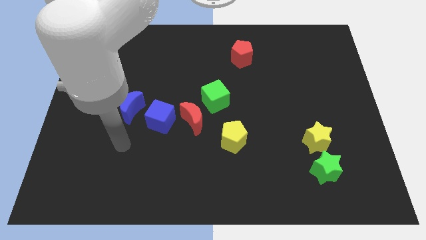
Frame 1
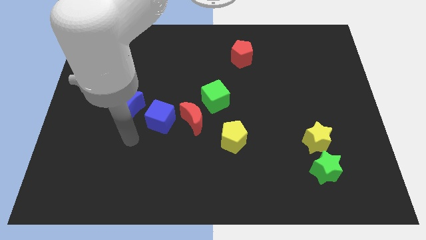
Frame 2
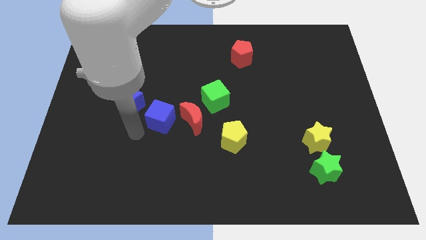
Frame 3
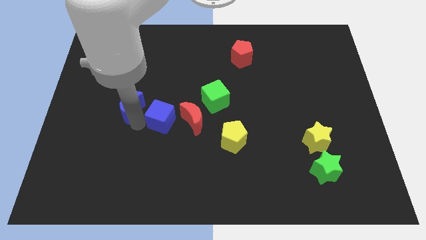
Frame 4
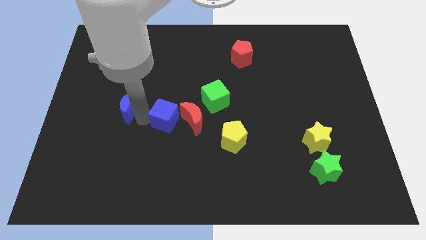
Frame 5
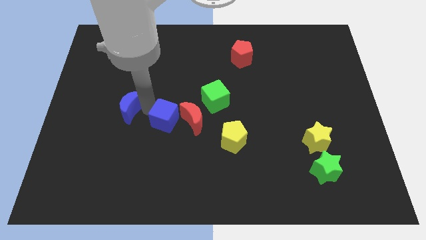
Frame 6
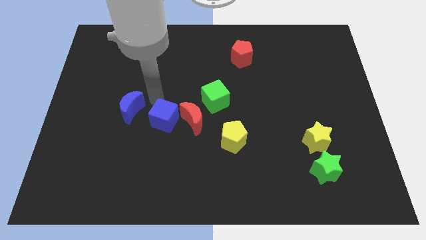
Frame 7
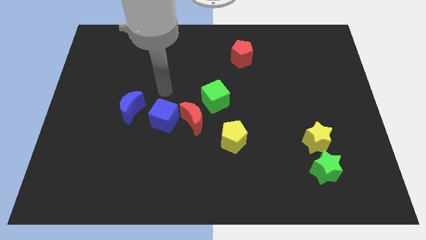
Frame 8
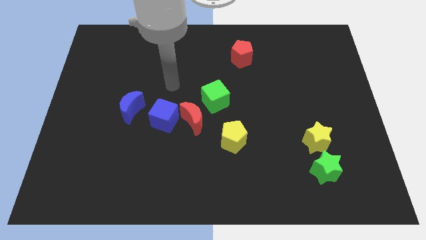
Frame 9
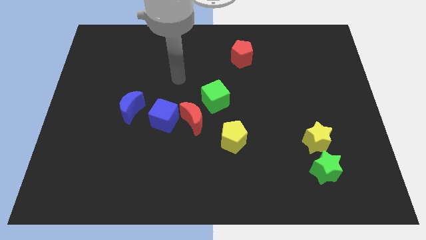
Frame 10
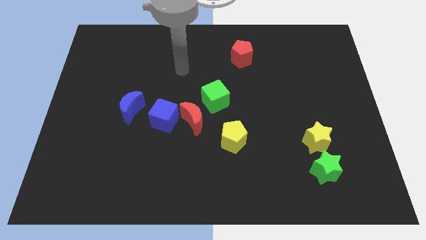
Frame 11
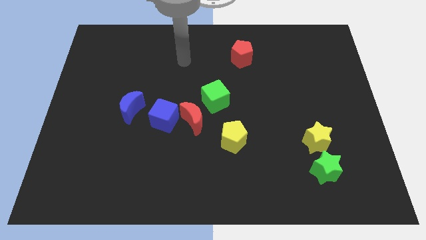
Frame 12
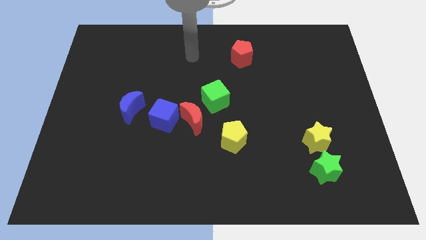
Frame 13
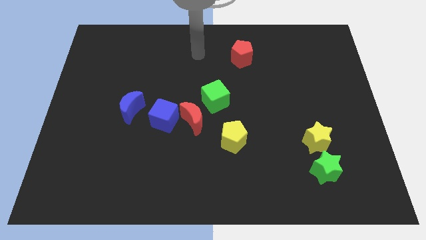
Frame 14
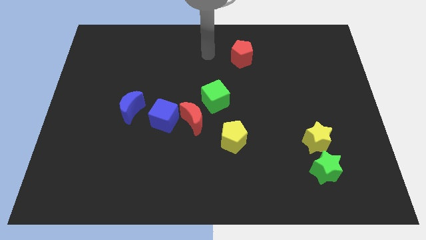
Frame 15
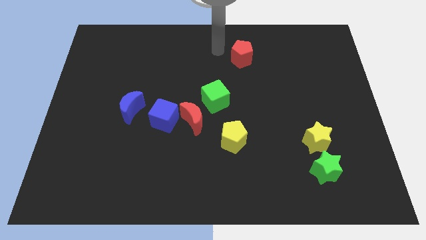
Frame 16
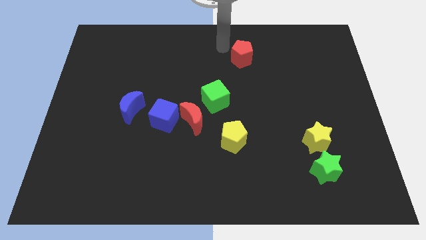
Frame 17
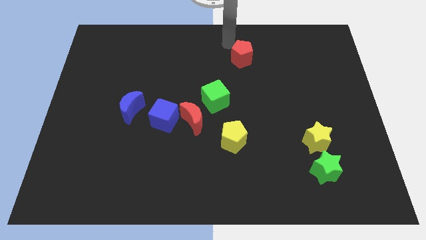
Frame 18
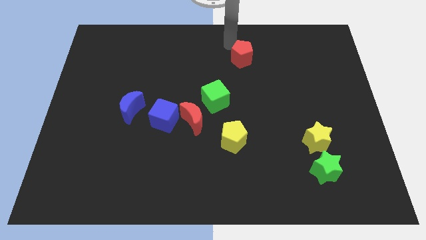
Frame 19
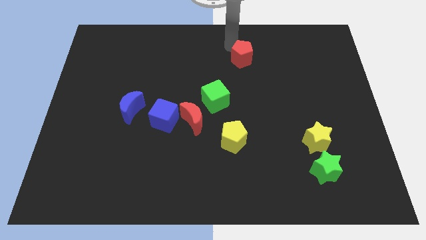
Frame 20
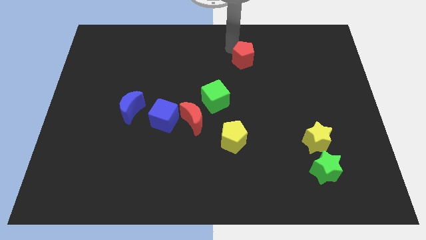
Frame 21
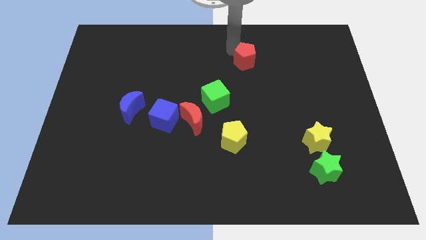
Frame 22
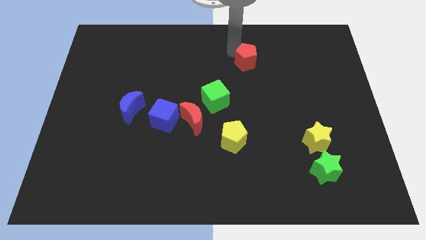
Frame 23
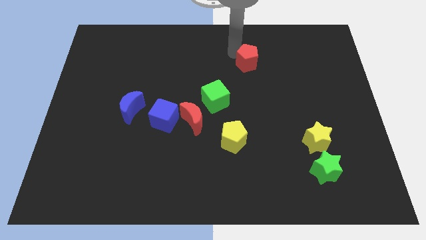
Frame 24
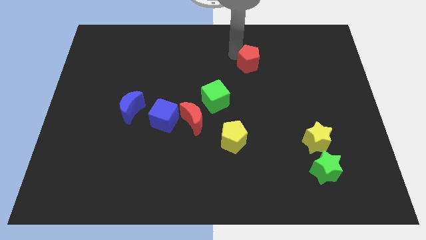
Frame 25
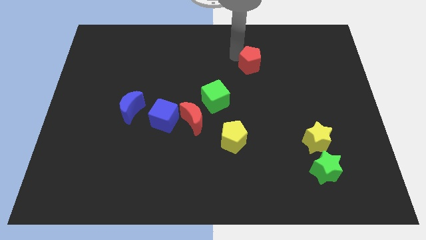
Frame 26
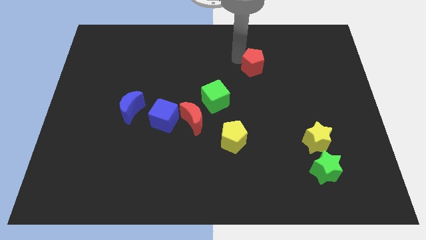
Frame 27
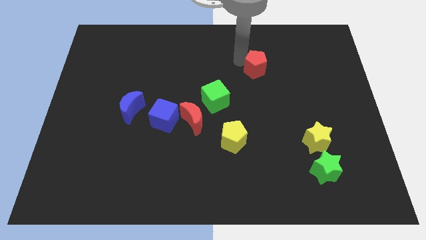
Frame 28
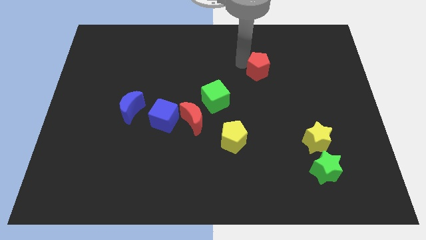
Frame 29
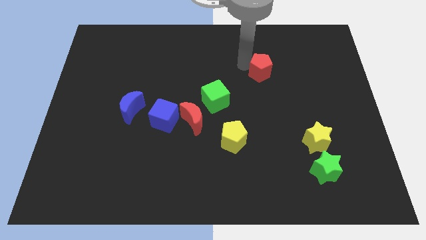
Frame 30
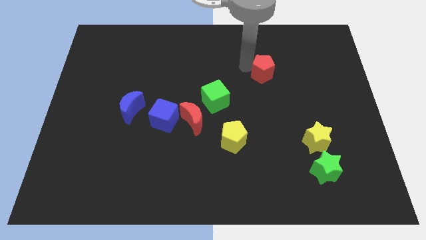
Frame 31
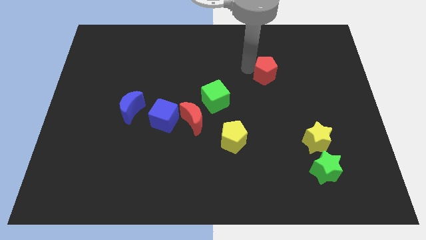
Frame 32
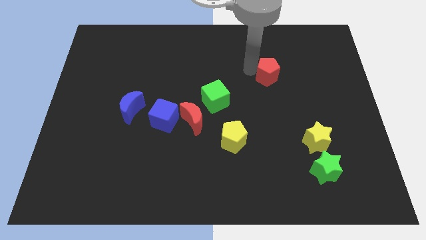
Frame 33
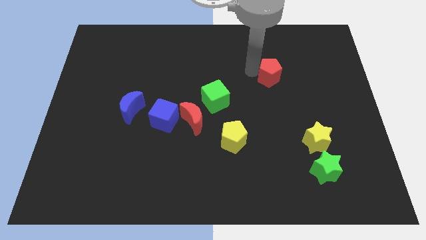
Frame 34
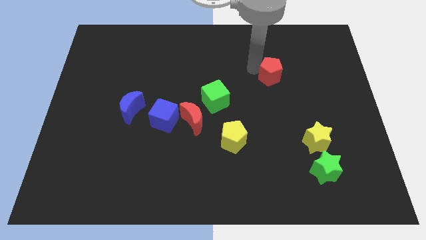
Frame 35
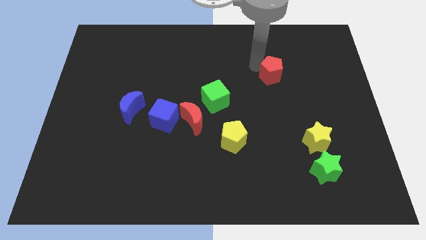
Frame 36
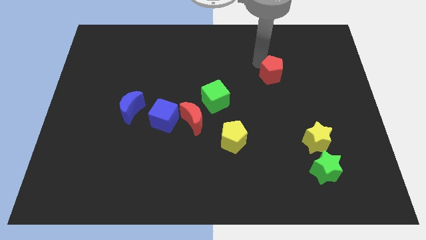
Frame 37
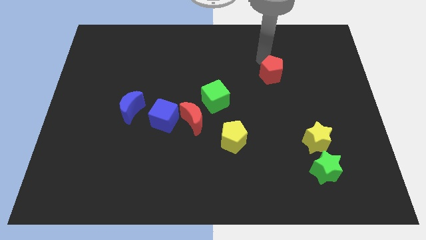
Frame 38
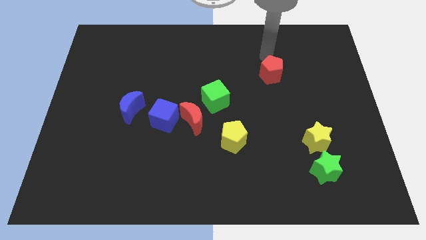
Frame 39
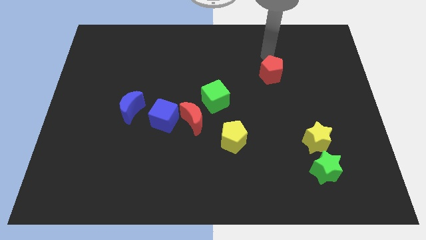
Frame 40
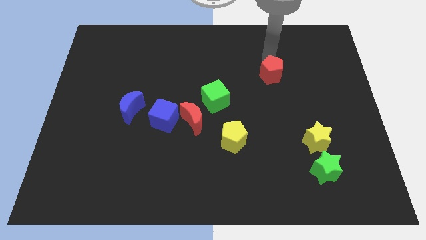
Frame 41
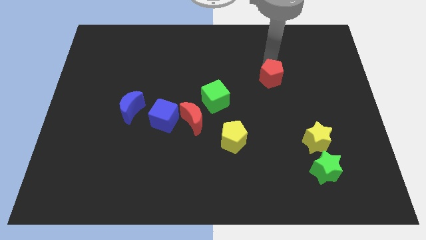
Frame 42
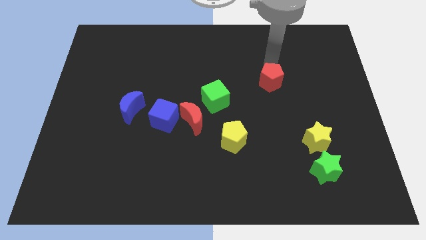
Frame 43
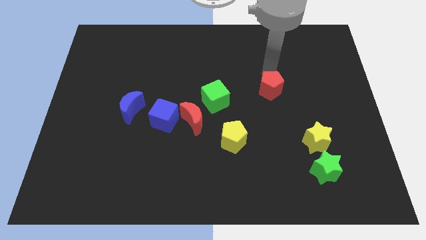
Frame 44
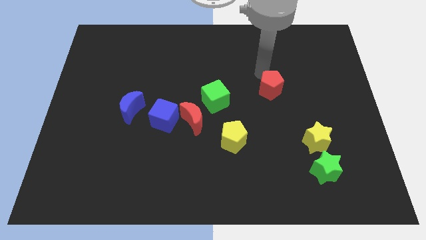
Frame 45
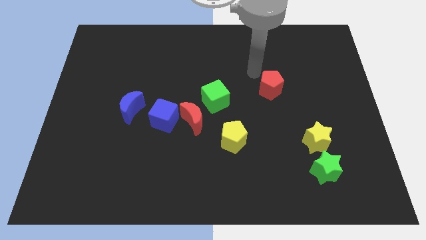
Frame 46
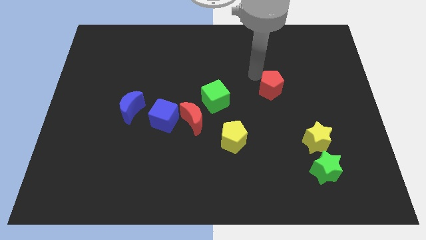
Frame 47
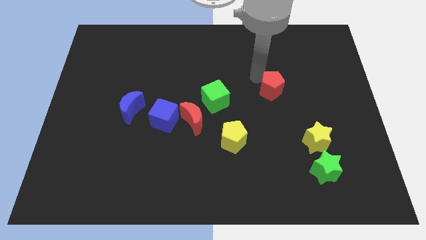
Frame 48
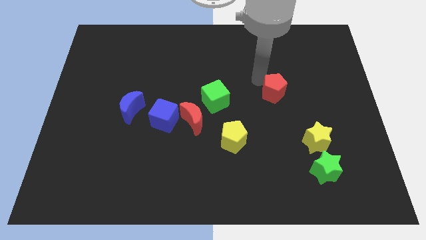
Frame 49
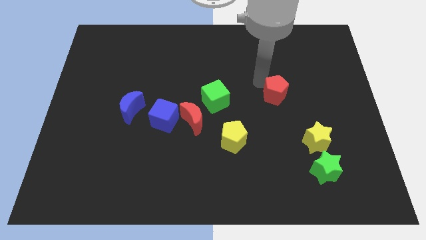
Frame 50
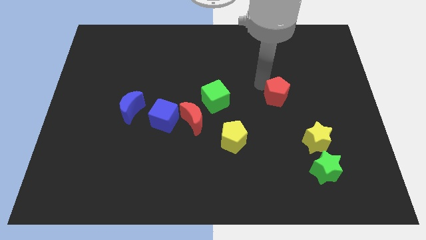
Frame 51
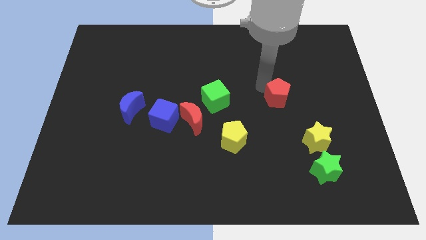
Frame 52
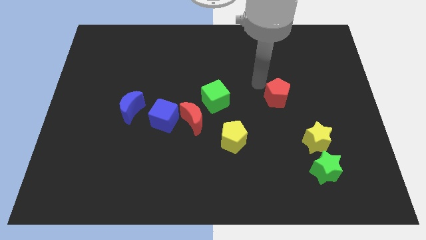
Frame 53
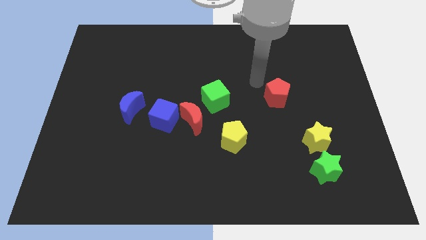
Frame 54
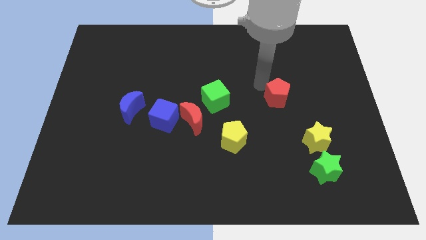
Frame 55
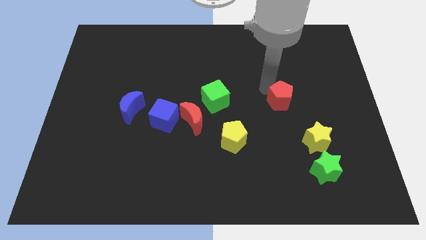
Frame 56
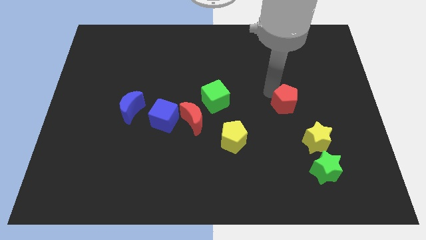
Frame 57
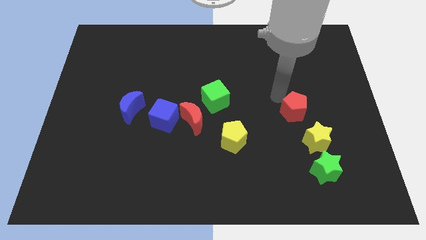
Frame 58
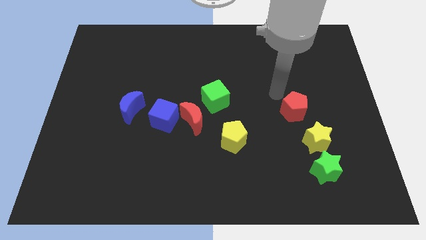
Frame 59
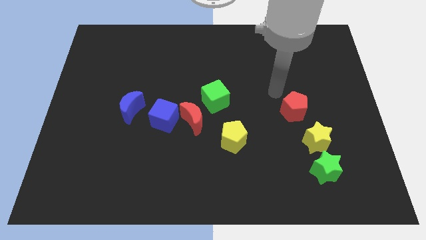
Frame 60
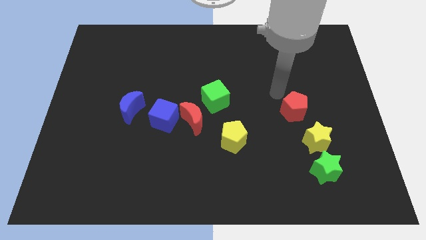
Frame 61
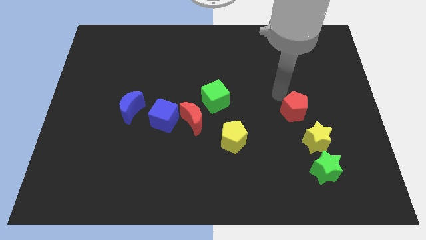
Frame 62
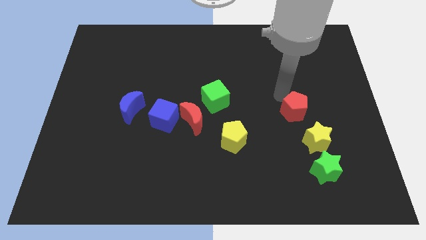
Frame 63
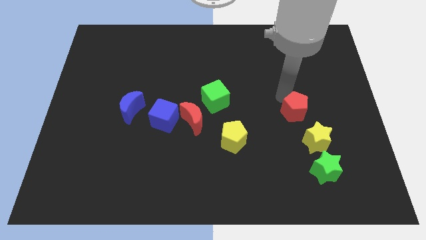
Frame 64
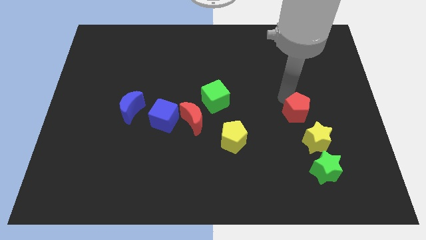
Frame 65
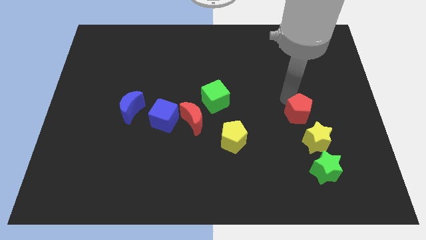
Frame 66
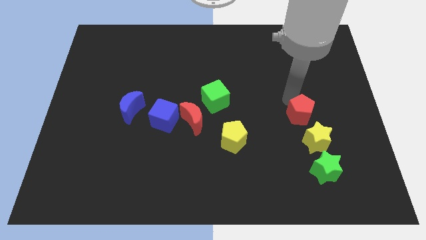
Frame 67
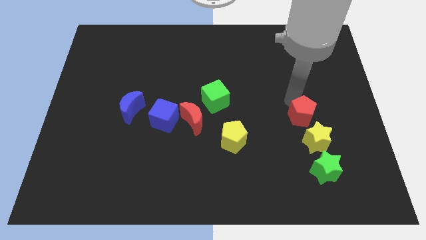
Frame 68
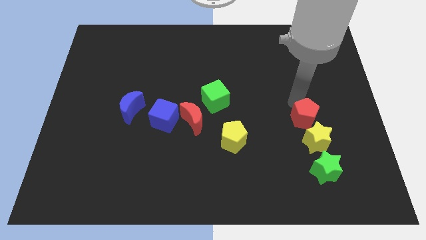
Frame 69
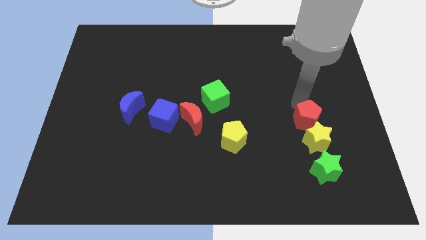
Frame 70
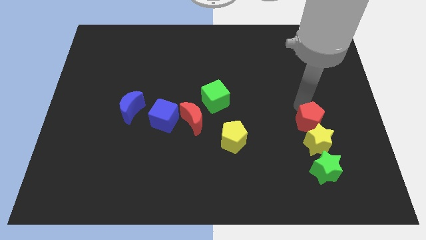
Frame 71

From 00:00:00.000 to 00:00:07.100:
slide the red pentagon next to the yellow star

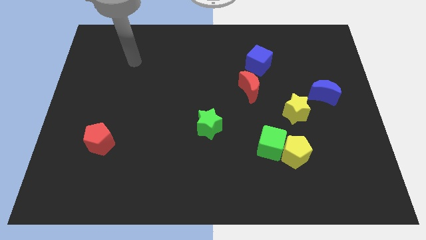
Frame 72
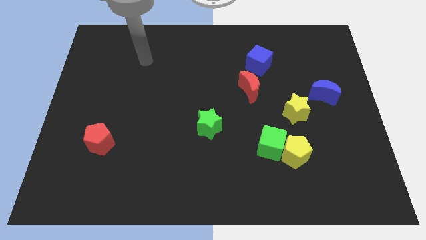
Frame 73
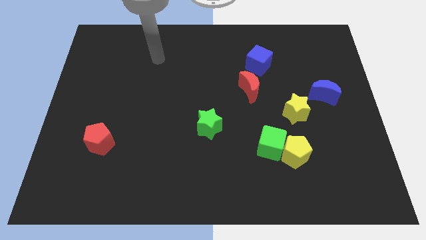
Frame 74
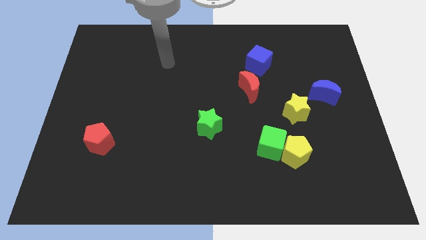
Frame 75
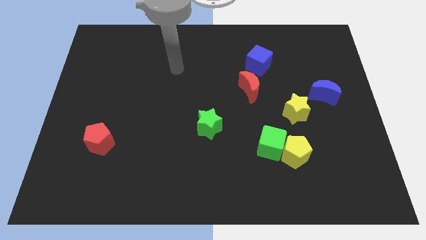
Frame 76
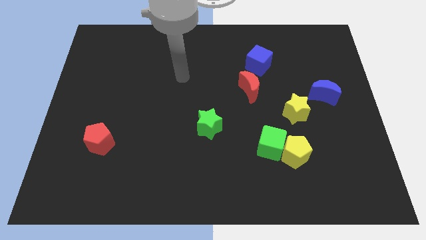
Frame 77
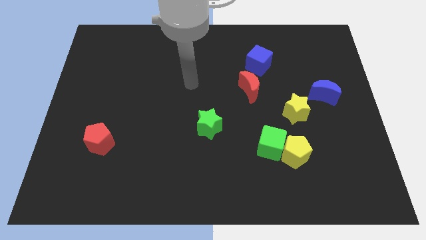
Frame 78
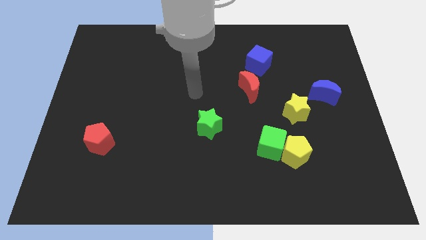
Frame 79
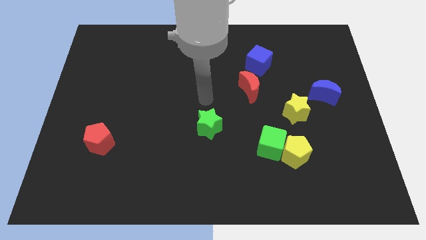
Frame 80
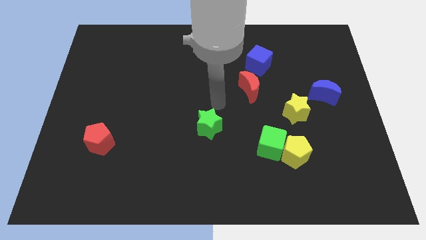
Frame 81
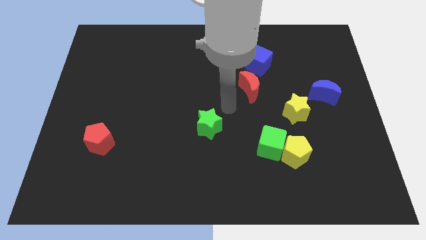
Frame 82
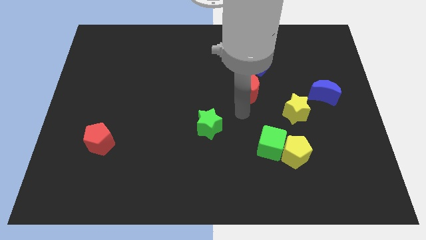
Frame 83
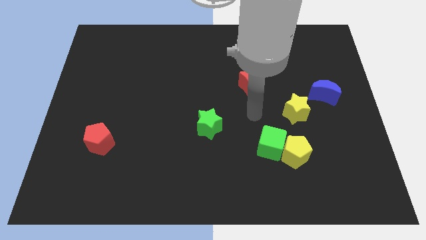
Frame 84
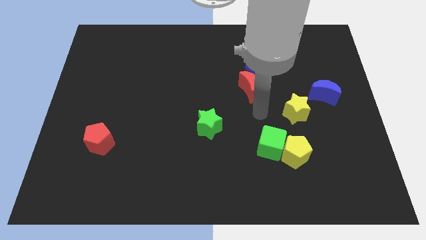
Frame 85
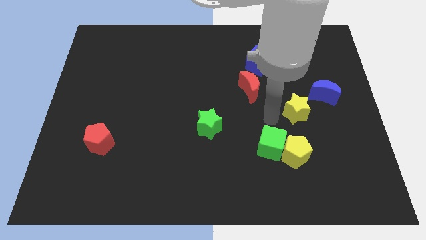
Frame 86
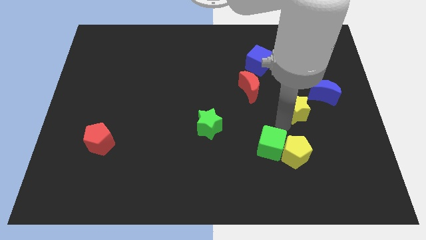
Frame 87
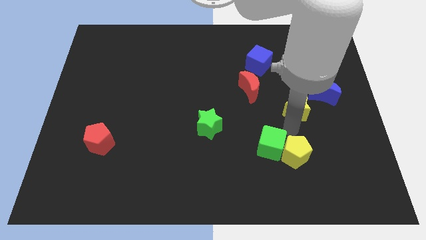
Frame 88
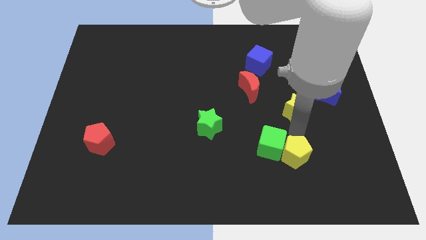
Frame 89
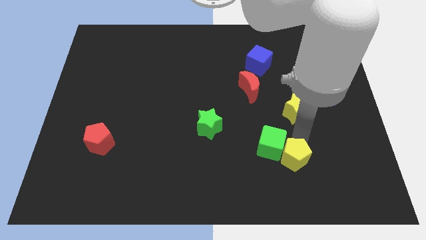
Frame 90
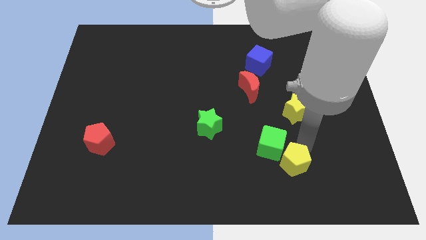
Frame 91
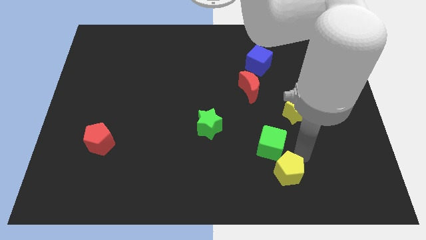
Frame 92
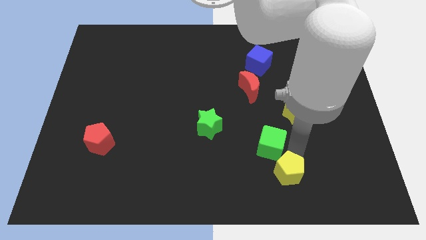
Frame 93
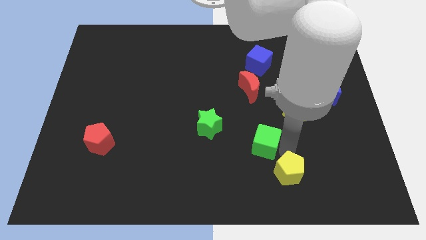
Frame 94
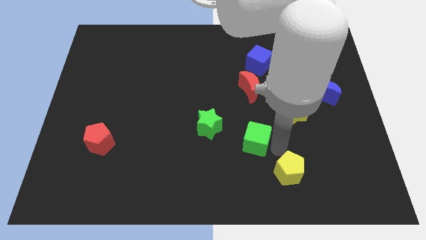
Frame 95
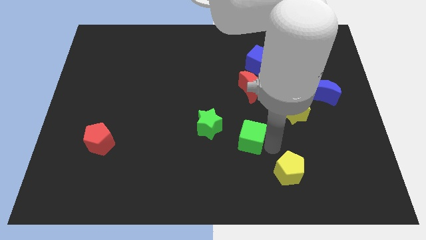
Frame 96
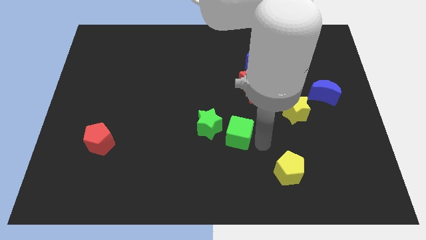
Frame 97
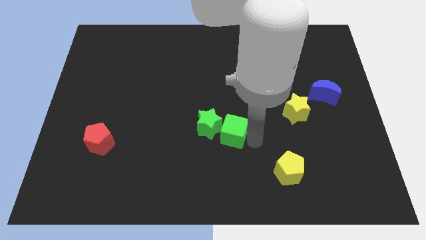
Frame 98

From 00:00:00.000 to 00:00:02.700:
move the green cube close to the green star
